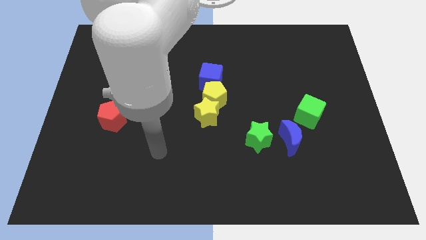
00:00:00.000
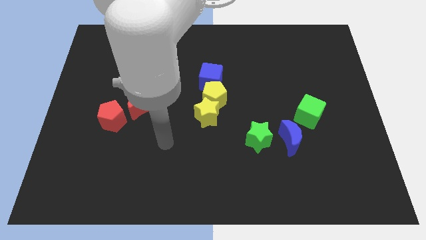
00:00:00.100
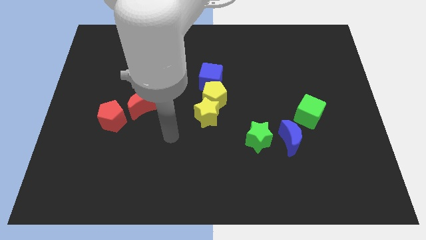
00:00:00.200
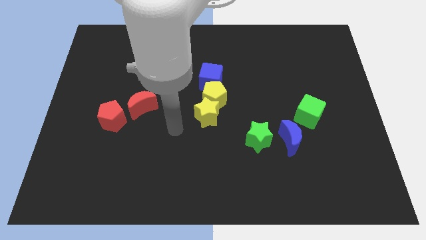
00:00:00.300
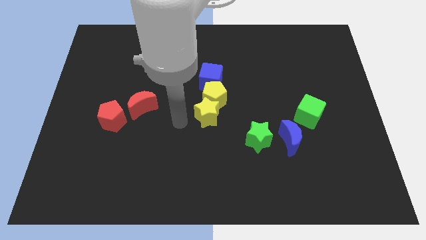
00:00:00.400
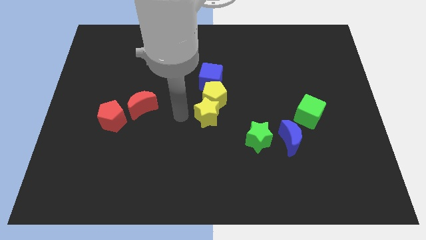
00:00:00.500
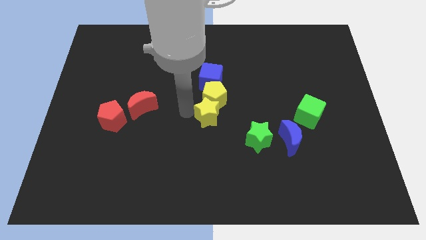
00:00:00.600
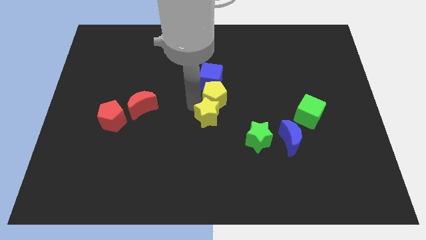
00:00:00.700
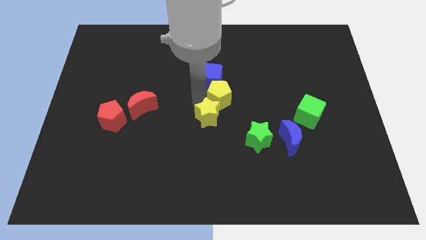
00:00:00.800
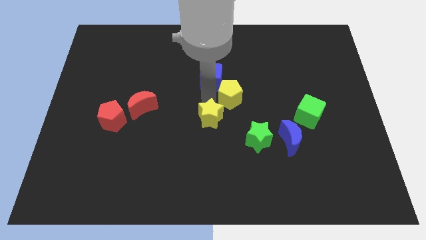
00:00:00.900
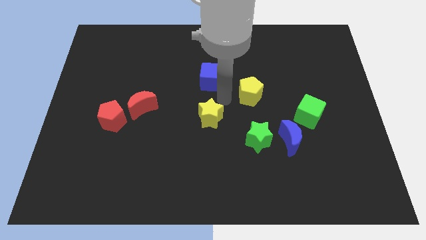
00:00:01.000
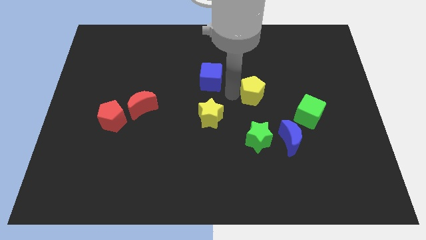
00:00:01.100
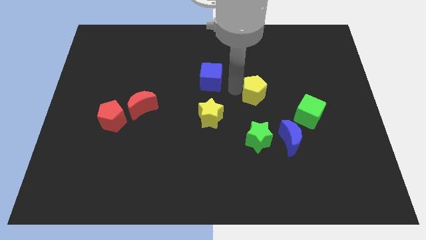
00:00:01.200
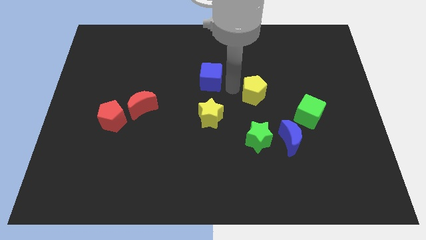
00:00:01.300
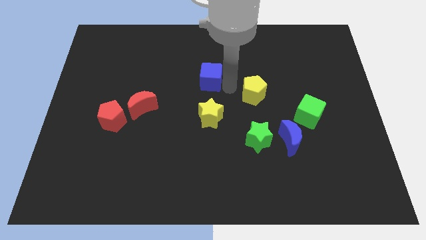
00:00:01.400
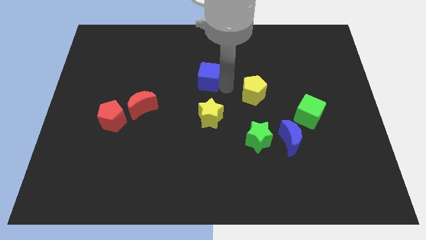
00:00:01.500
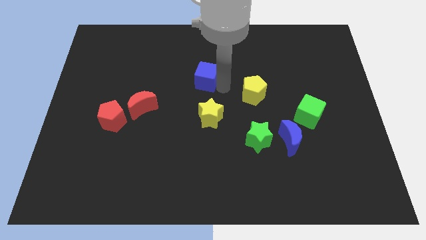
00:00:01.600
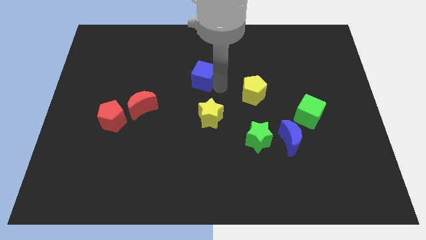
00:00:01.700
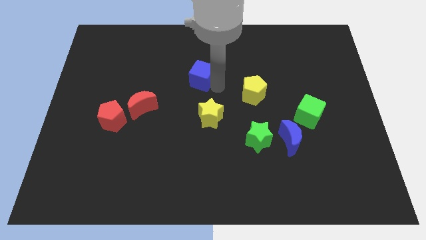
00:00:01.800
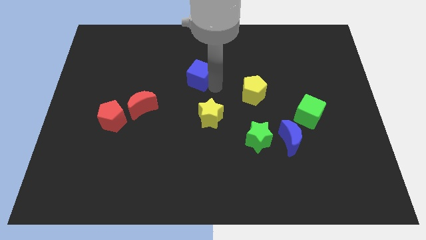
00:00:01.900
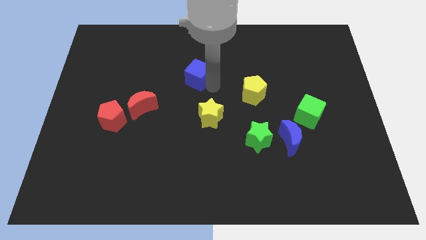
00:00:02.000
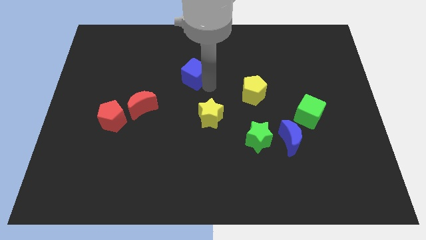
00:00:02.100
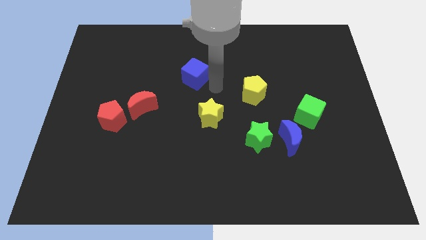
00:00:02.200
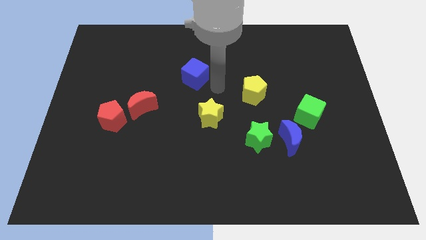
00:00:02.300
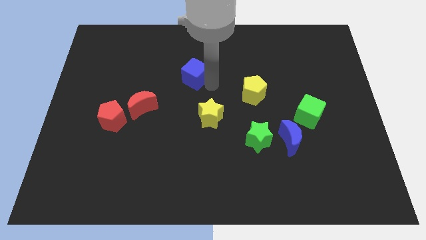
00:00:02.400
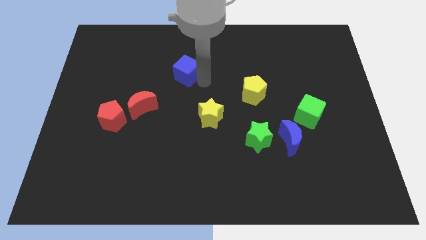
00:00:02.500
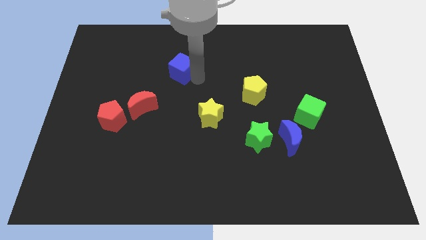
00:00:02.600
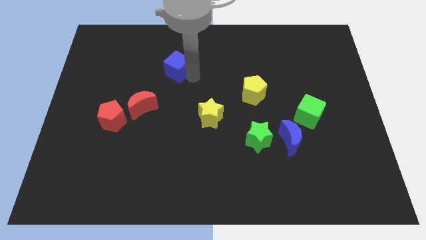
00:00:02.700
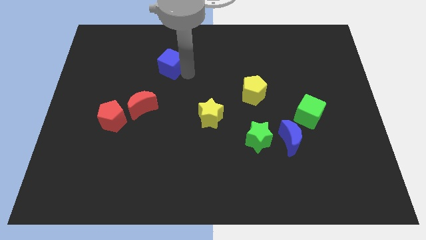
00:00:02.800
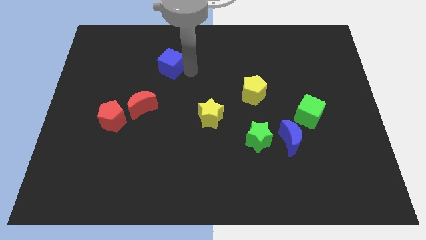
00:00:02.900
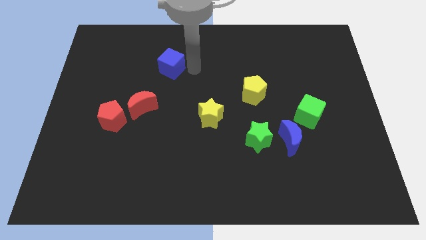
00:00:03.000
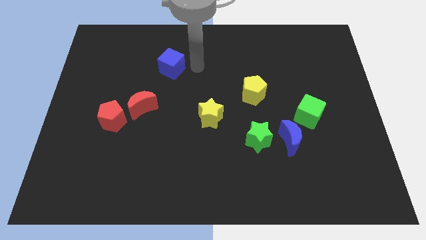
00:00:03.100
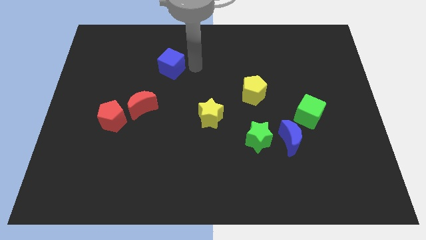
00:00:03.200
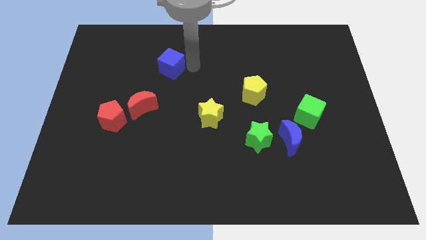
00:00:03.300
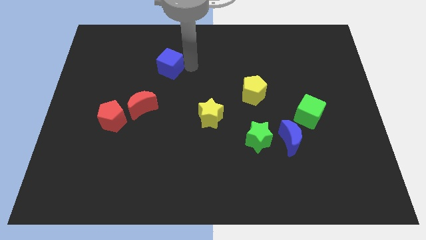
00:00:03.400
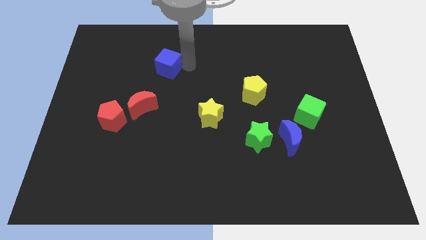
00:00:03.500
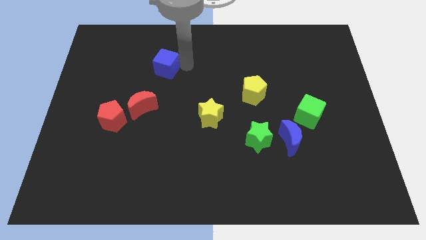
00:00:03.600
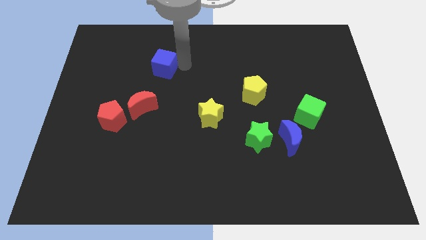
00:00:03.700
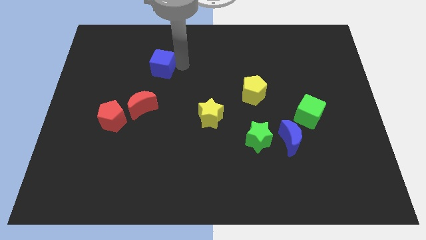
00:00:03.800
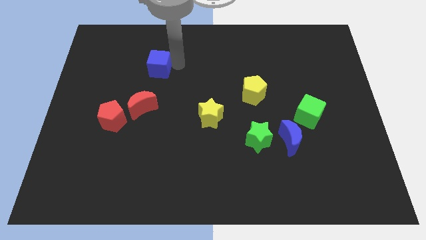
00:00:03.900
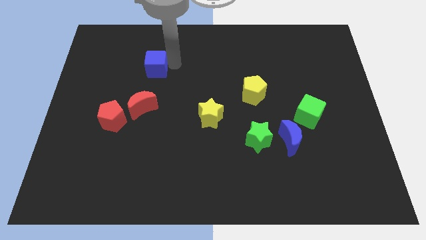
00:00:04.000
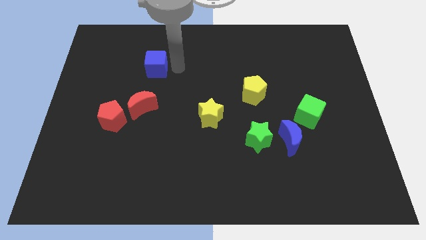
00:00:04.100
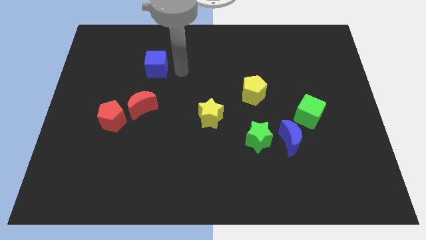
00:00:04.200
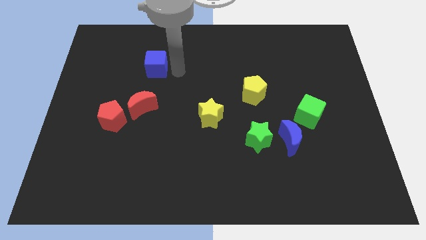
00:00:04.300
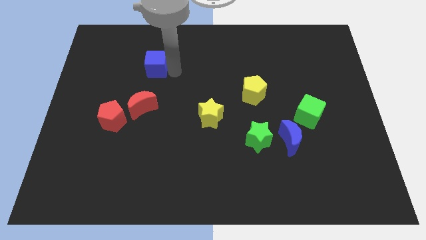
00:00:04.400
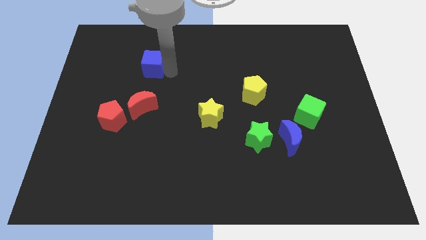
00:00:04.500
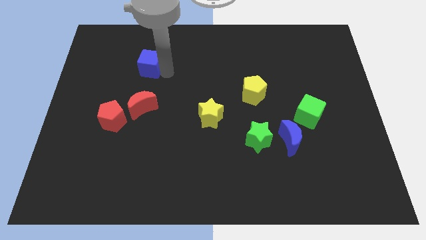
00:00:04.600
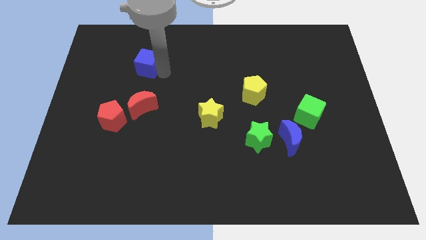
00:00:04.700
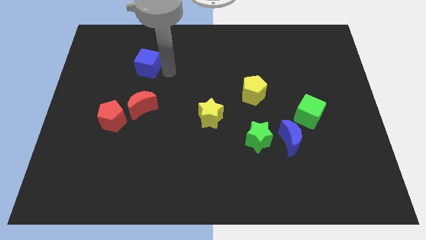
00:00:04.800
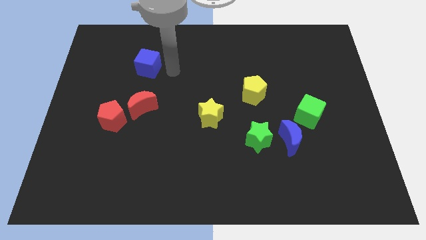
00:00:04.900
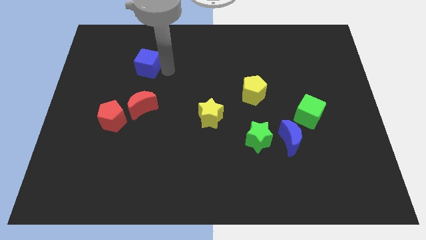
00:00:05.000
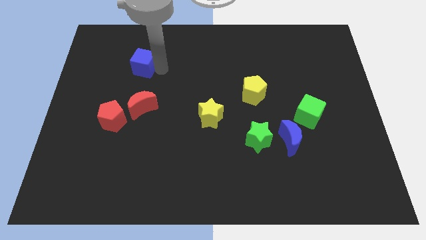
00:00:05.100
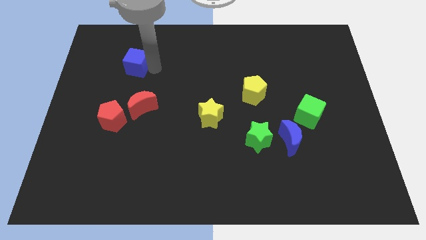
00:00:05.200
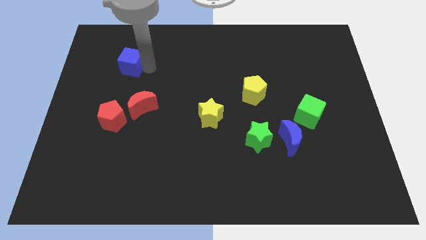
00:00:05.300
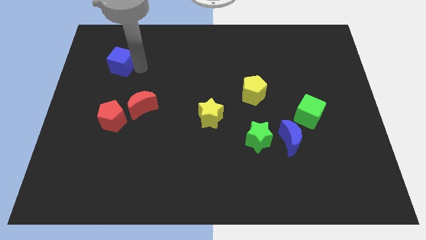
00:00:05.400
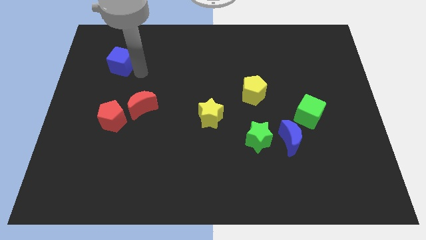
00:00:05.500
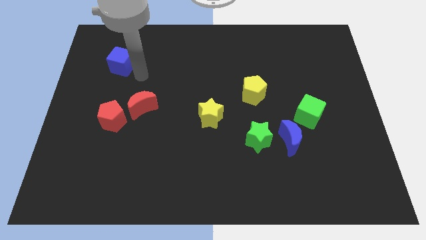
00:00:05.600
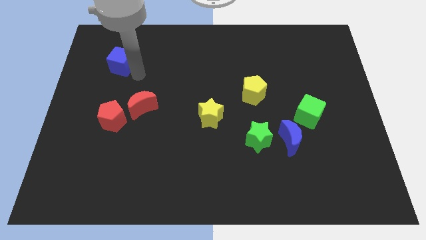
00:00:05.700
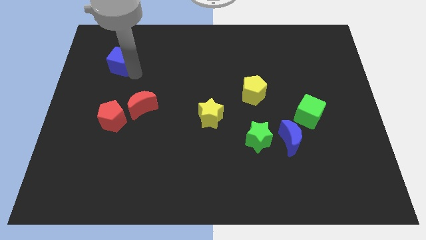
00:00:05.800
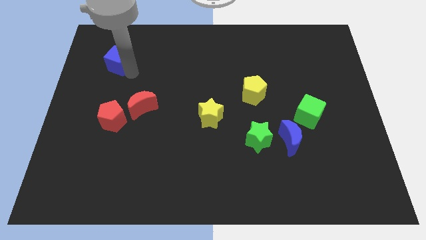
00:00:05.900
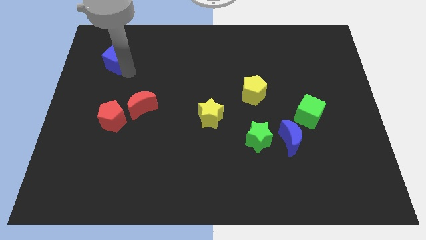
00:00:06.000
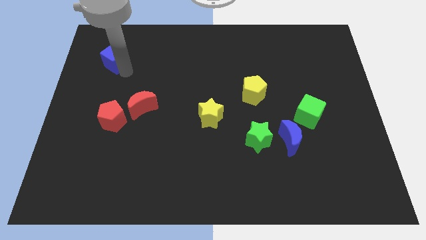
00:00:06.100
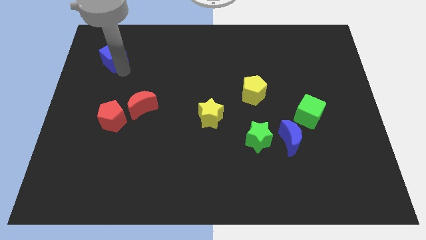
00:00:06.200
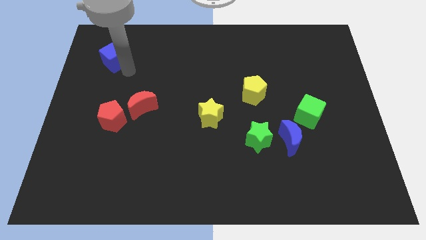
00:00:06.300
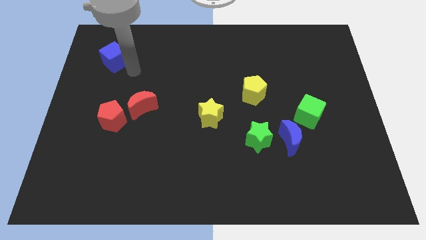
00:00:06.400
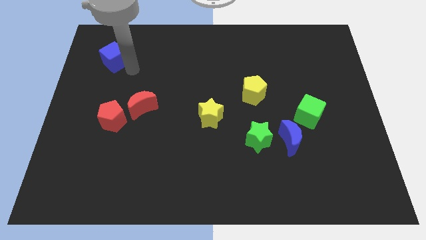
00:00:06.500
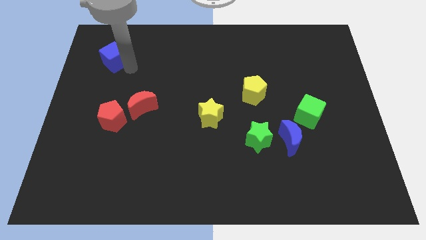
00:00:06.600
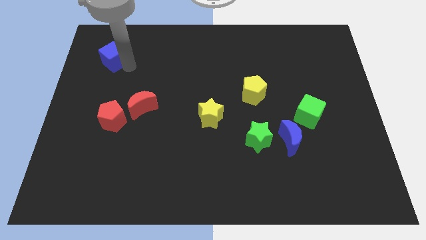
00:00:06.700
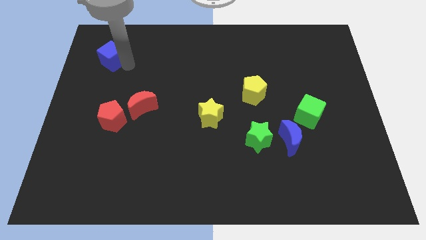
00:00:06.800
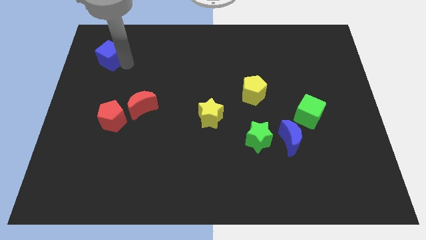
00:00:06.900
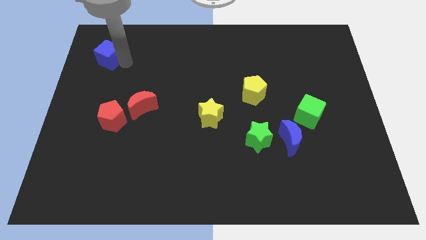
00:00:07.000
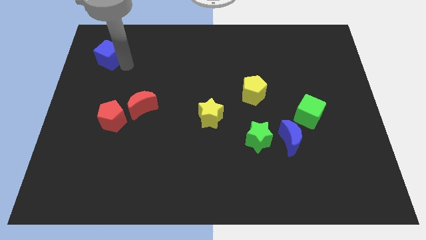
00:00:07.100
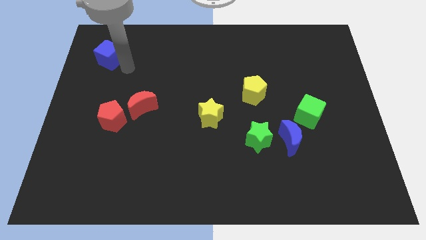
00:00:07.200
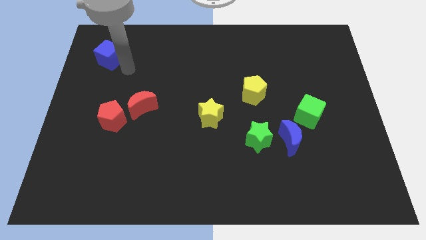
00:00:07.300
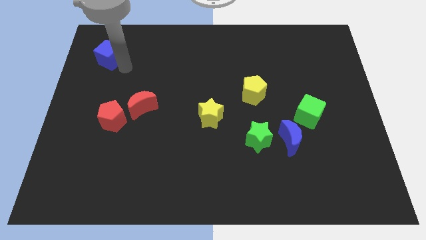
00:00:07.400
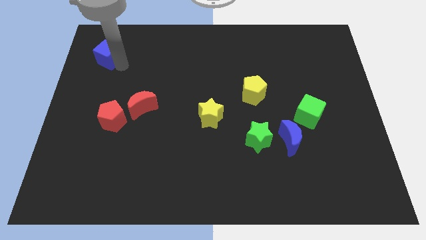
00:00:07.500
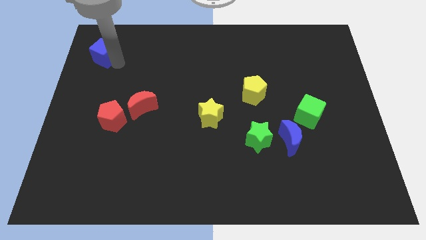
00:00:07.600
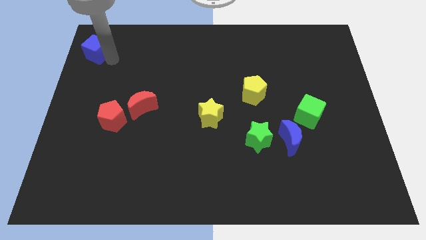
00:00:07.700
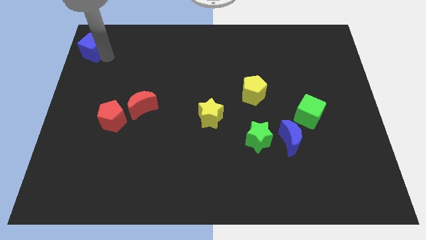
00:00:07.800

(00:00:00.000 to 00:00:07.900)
move the blue cube to the upper left corner
